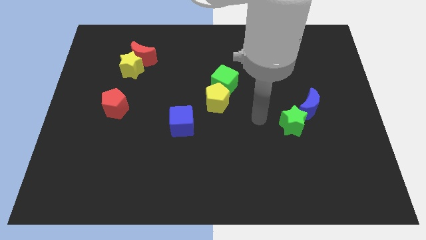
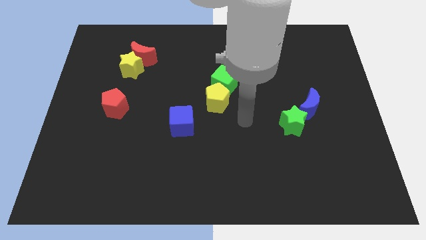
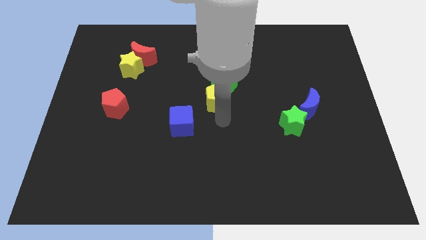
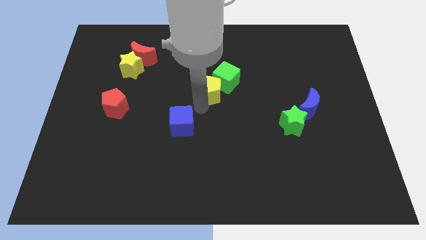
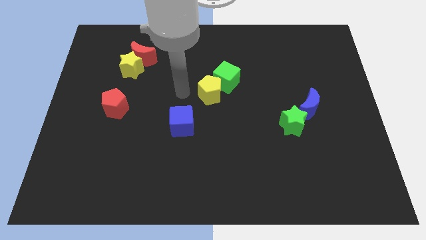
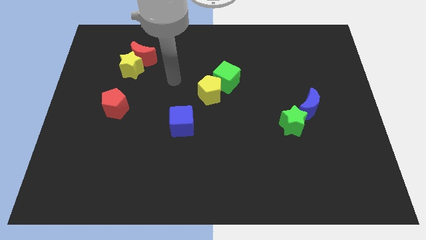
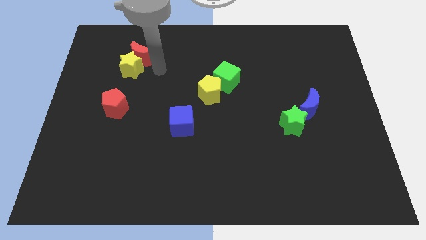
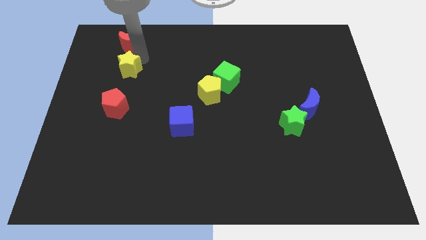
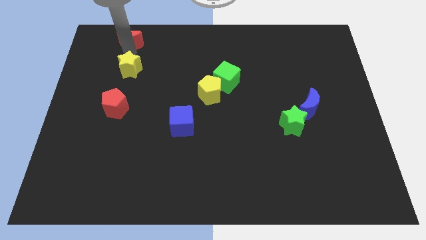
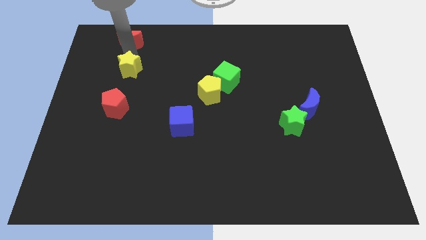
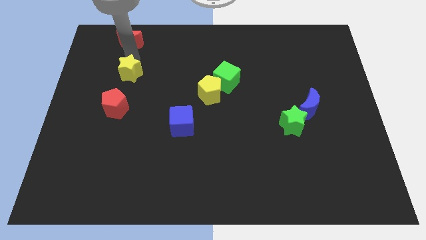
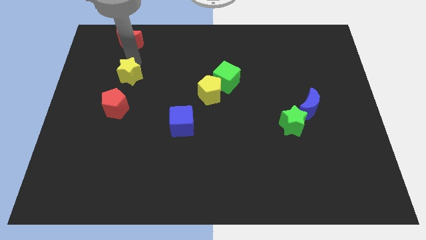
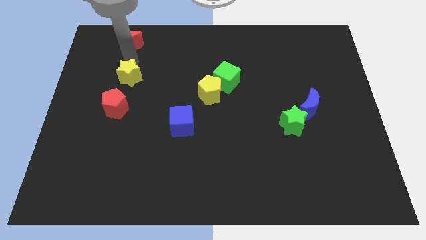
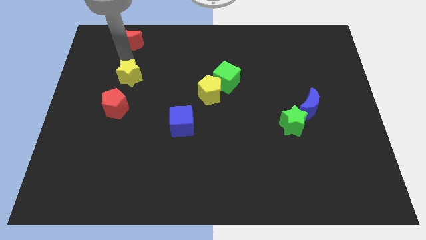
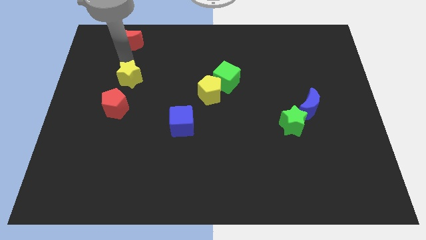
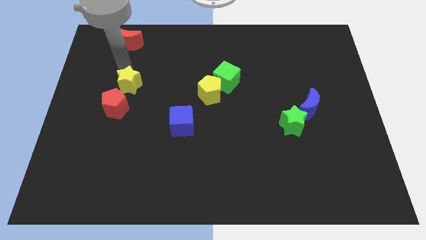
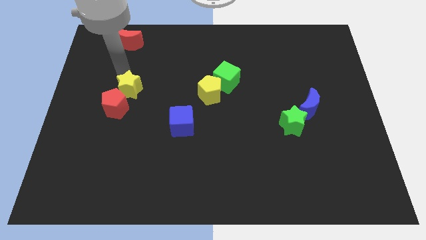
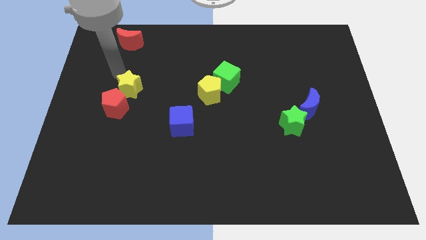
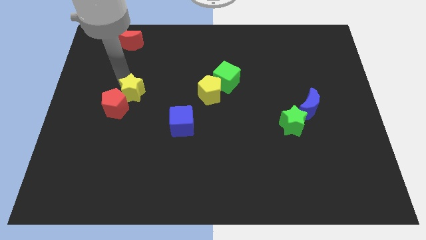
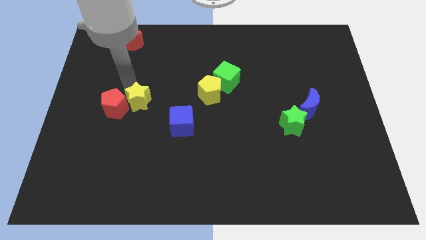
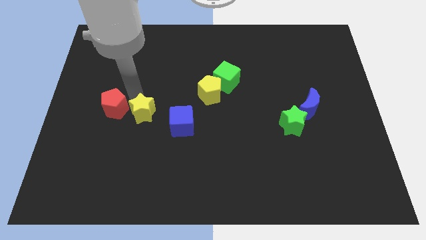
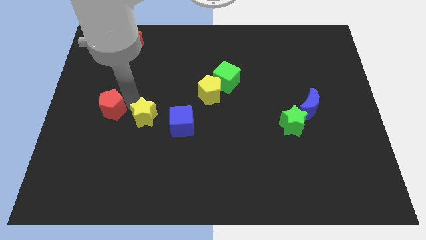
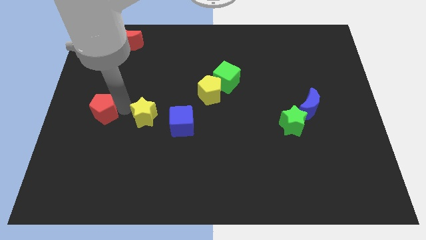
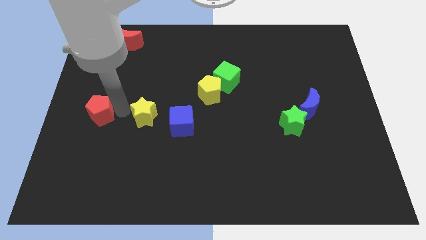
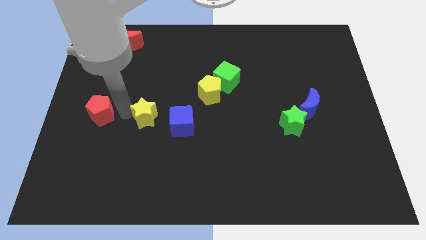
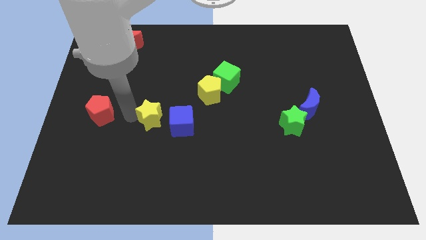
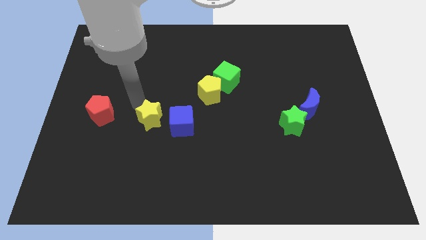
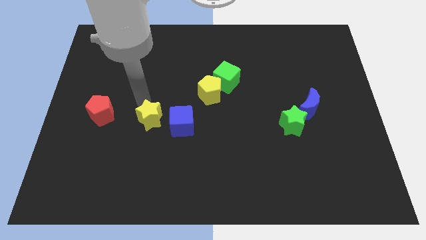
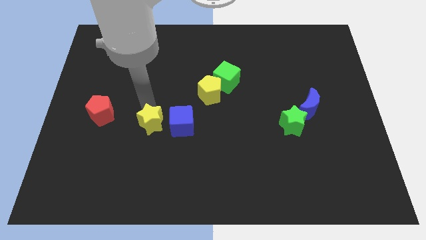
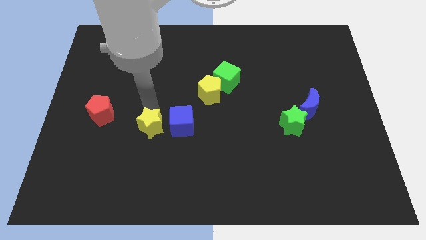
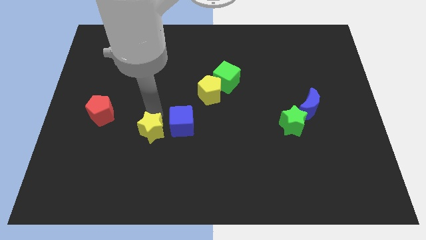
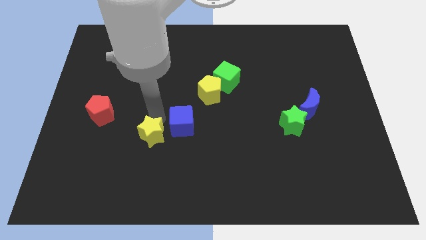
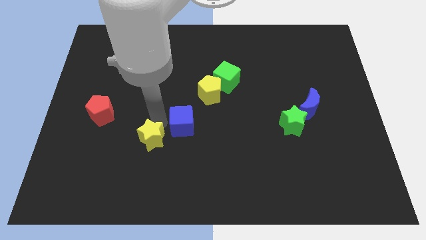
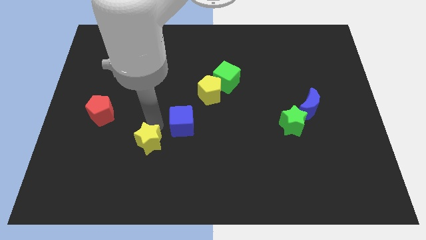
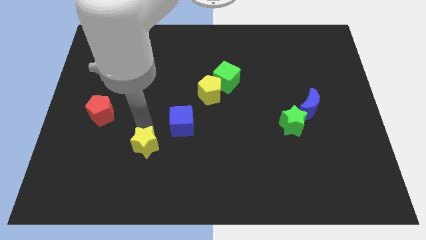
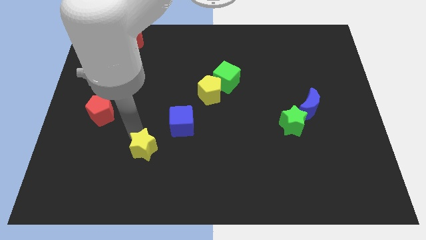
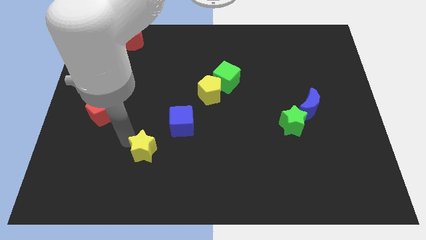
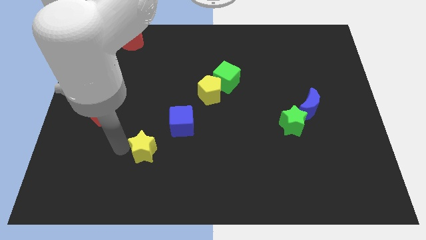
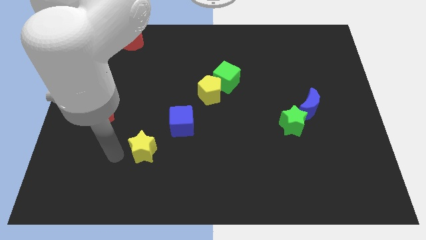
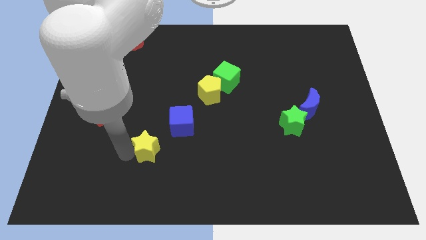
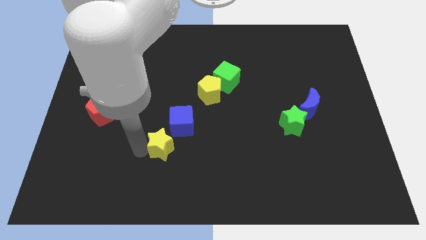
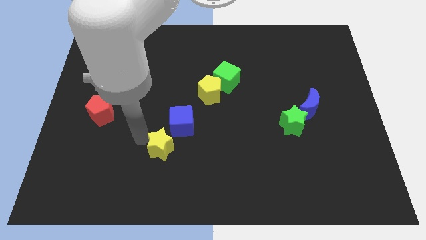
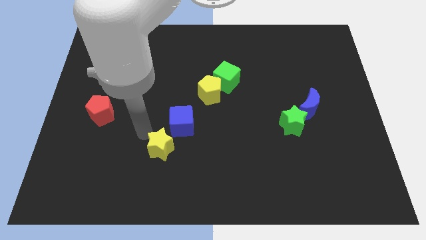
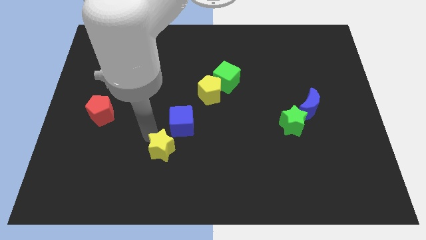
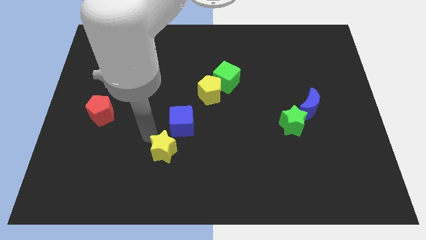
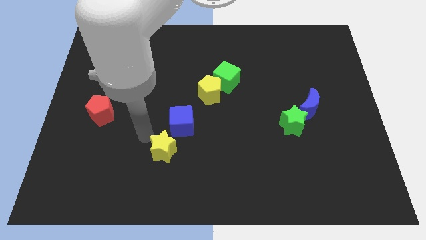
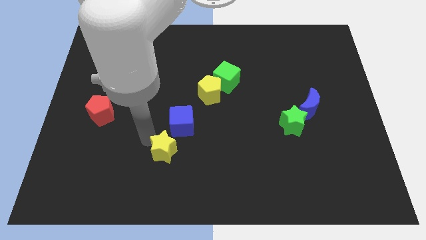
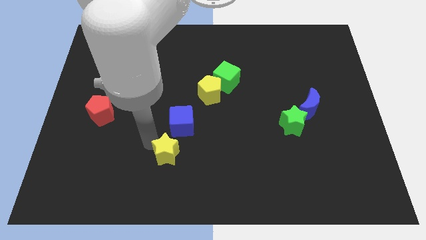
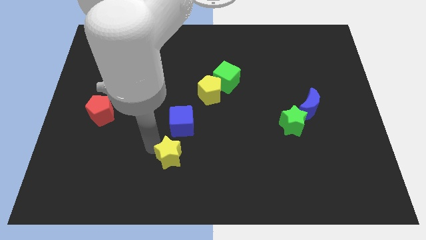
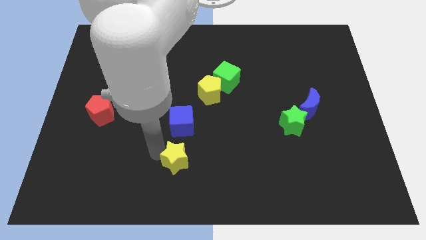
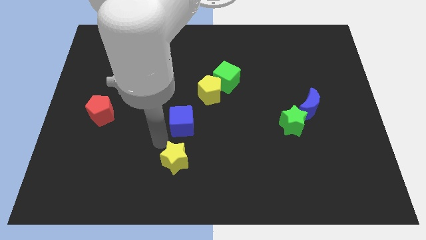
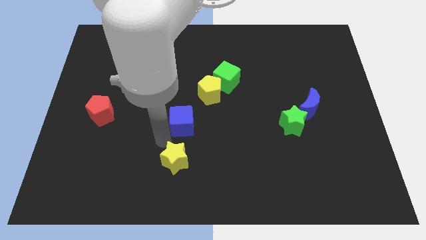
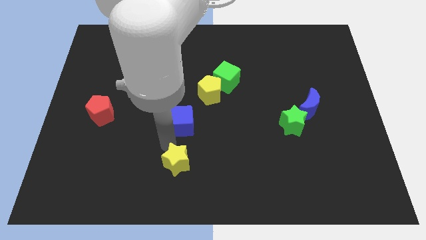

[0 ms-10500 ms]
put the yellow star to the bottom side

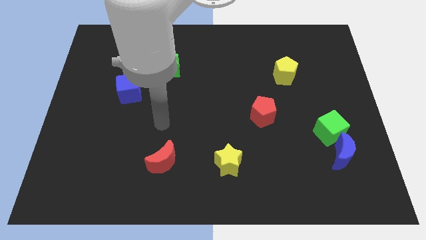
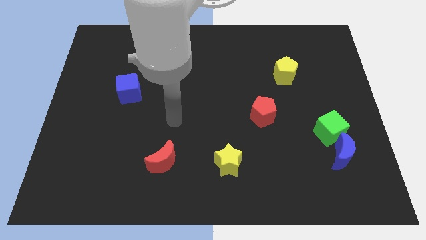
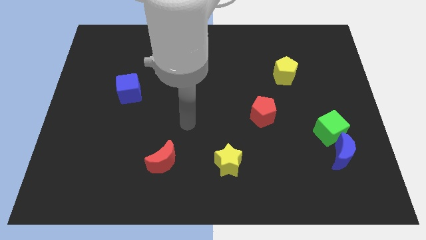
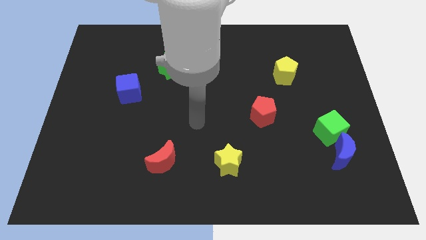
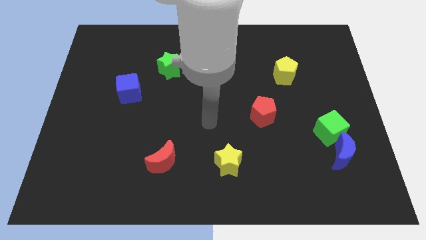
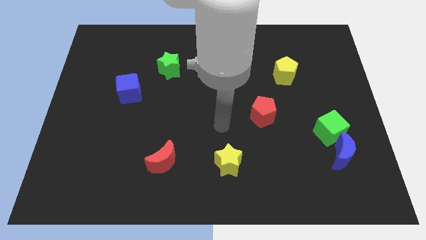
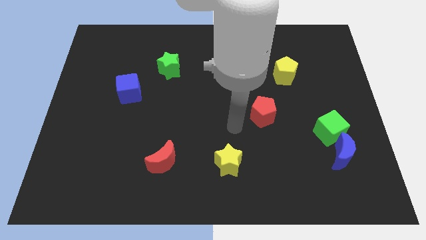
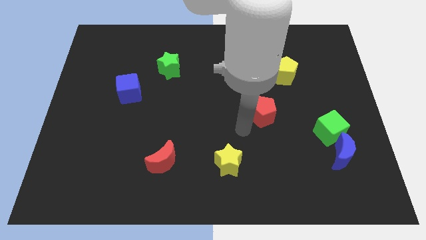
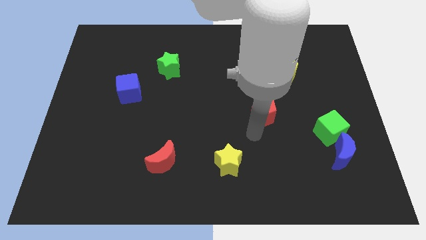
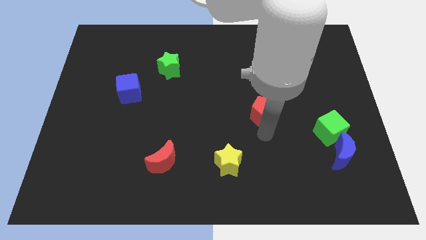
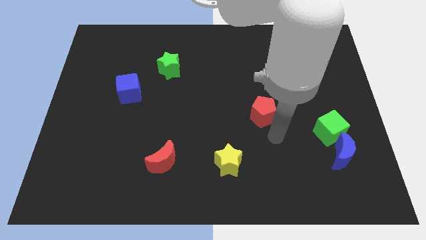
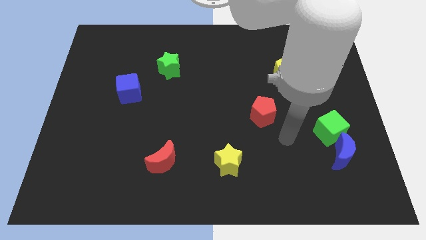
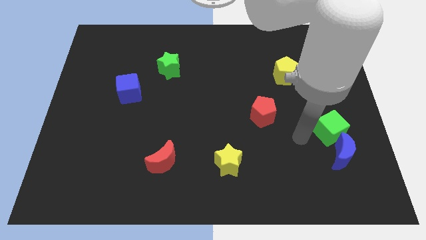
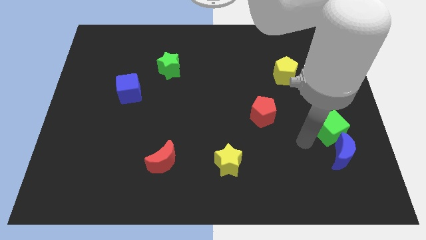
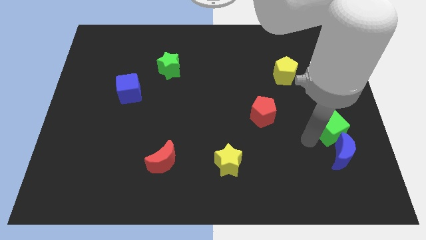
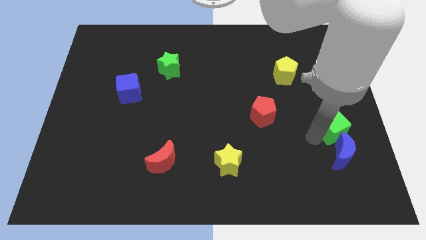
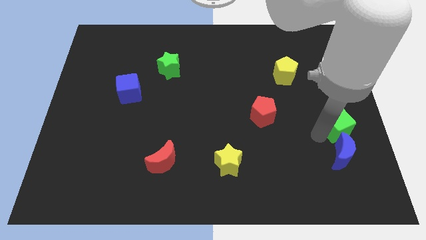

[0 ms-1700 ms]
move the green cube to the right side of the board
